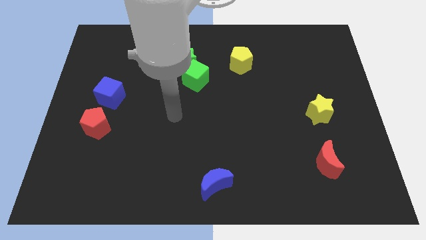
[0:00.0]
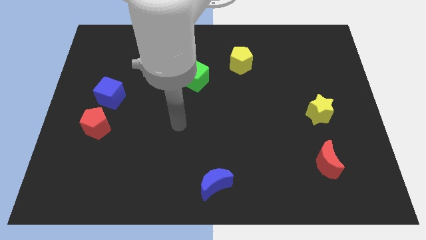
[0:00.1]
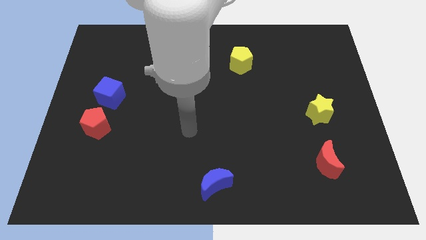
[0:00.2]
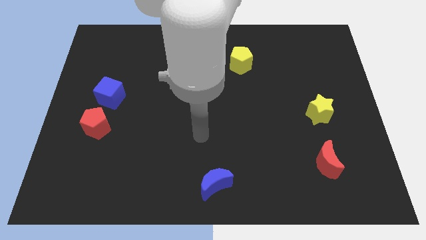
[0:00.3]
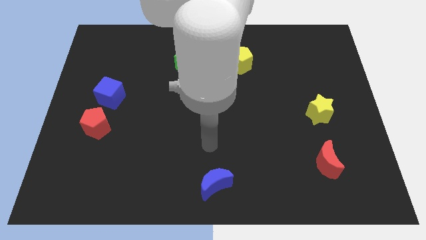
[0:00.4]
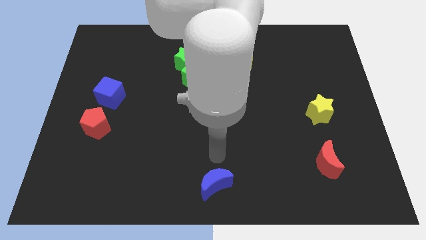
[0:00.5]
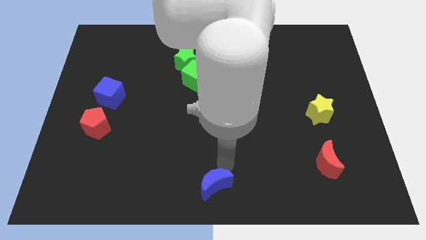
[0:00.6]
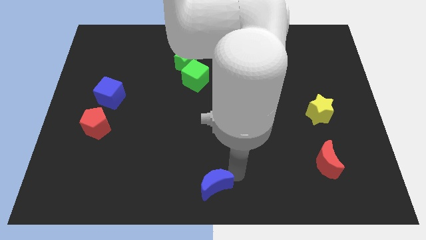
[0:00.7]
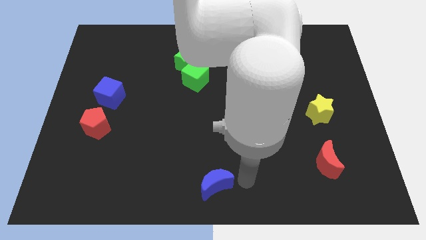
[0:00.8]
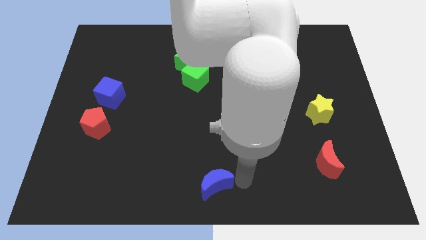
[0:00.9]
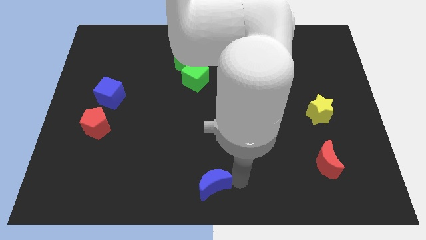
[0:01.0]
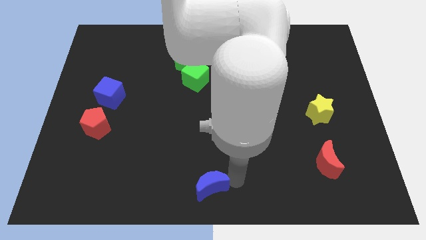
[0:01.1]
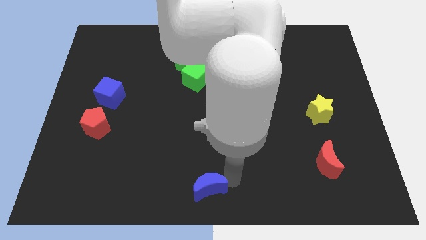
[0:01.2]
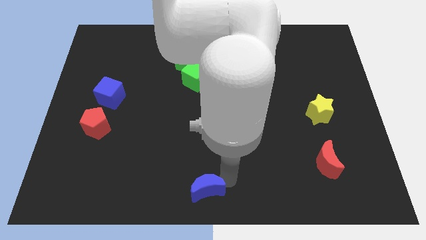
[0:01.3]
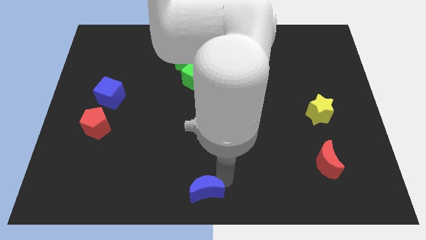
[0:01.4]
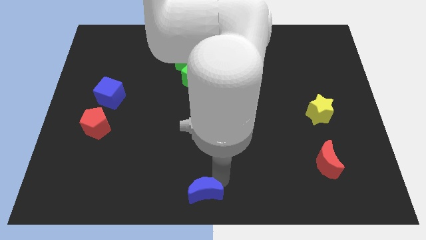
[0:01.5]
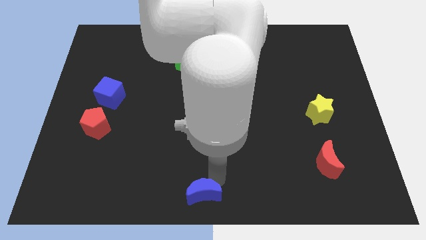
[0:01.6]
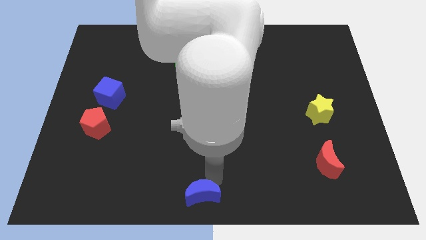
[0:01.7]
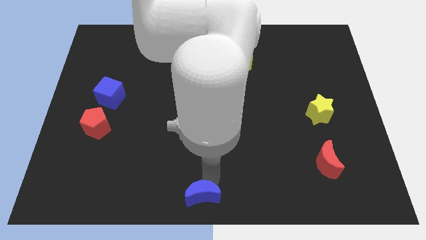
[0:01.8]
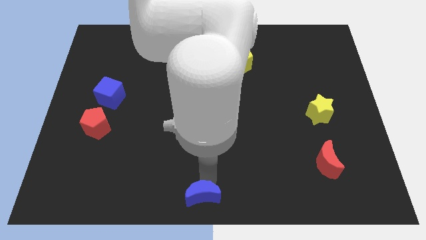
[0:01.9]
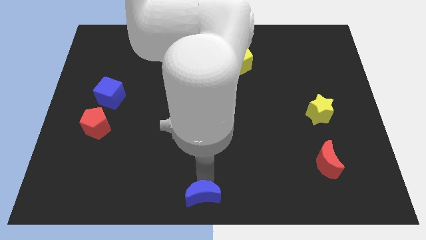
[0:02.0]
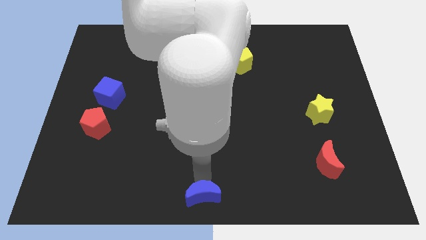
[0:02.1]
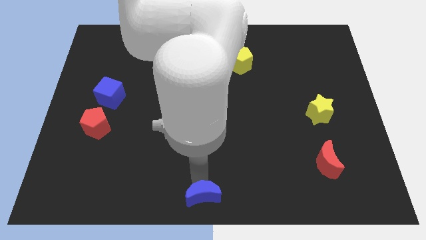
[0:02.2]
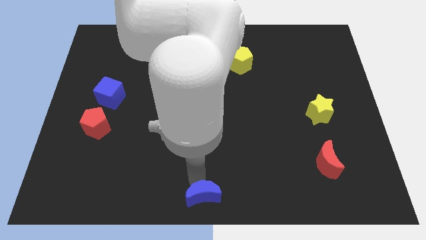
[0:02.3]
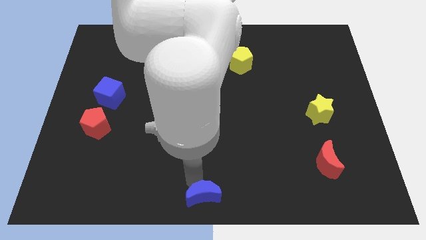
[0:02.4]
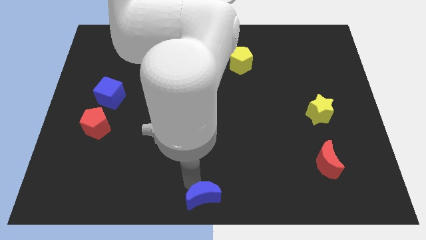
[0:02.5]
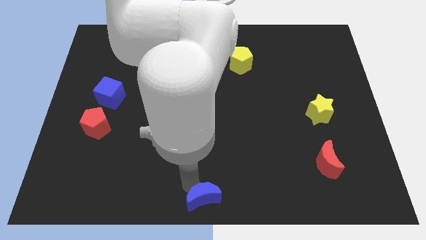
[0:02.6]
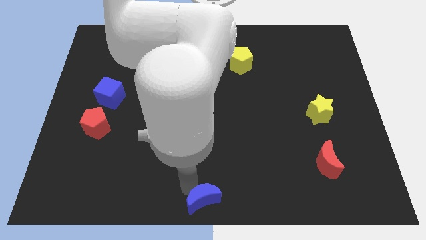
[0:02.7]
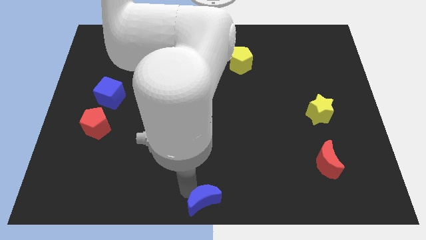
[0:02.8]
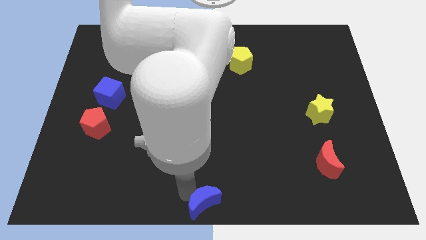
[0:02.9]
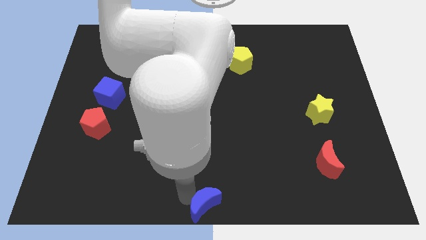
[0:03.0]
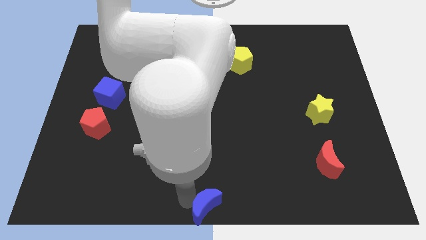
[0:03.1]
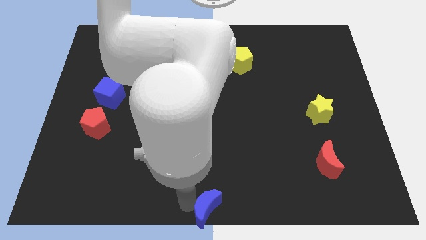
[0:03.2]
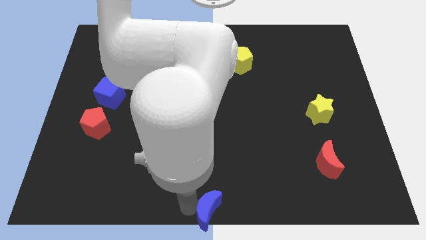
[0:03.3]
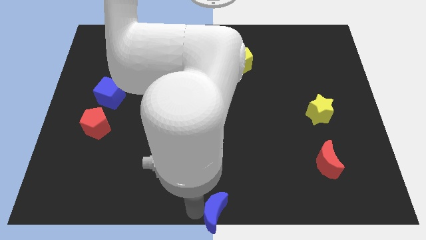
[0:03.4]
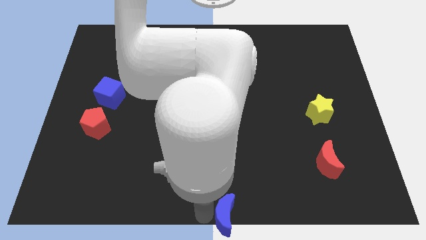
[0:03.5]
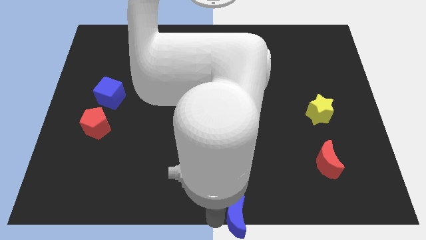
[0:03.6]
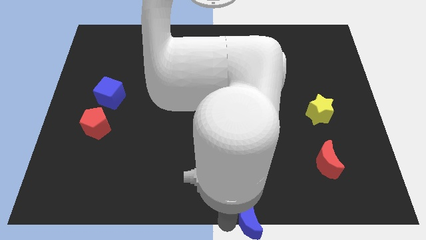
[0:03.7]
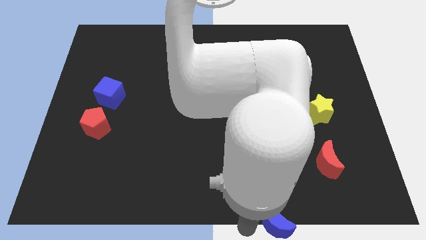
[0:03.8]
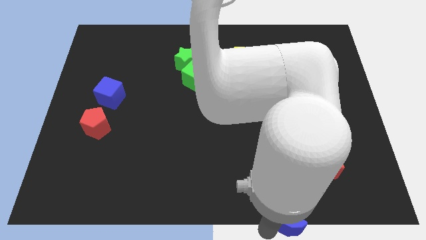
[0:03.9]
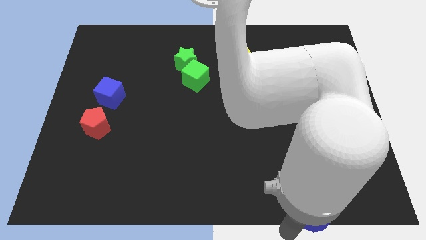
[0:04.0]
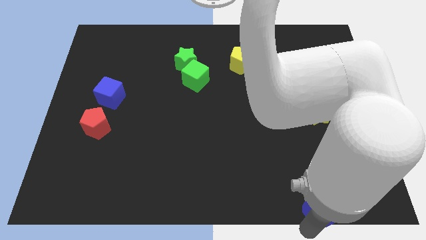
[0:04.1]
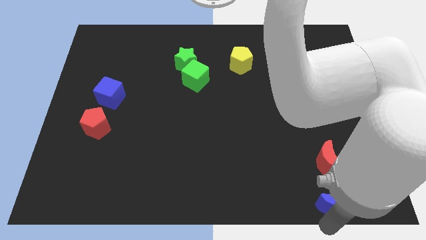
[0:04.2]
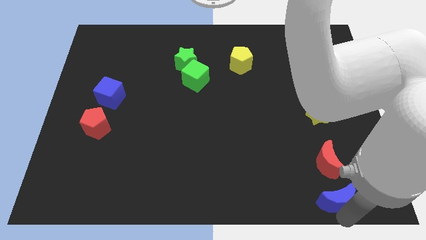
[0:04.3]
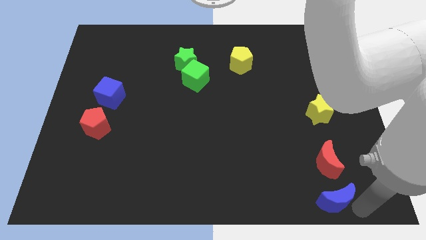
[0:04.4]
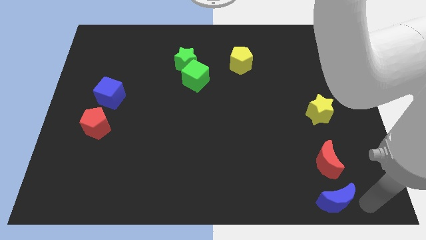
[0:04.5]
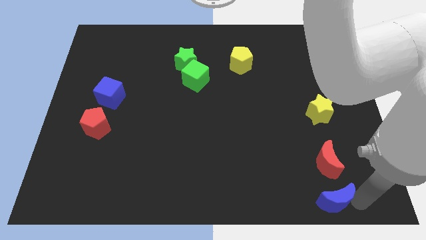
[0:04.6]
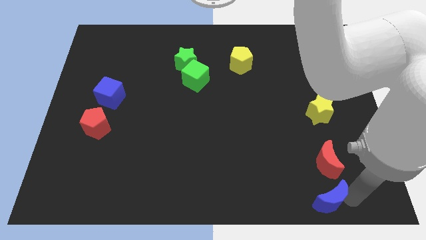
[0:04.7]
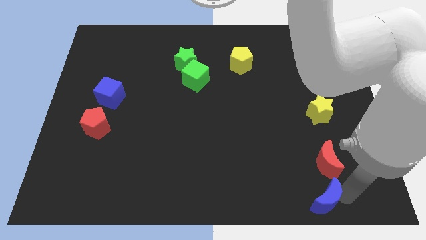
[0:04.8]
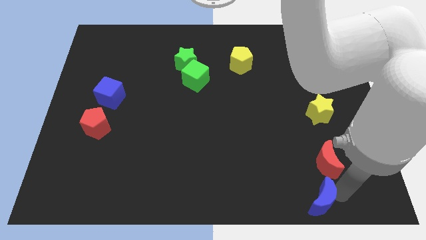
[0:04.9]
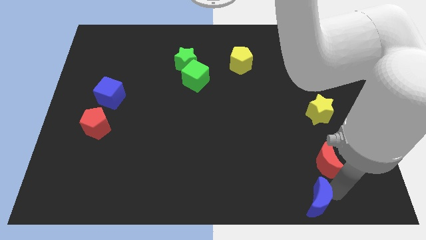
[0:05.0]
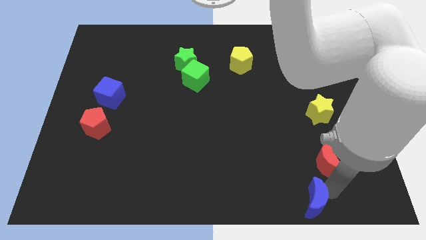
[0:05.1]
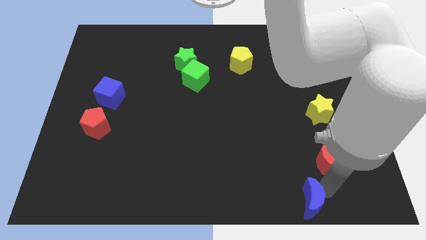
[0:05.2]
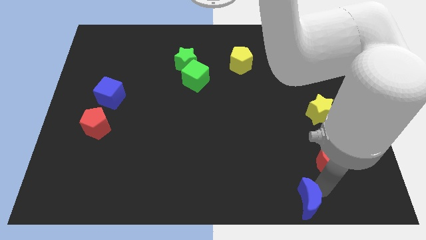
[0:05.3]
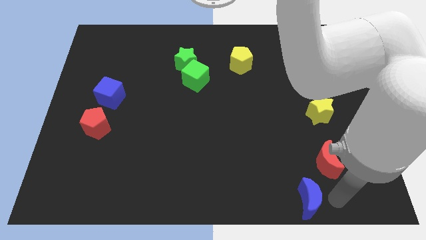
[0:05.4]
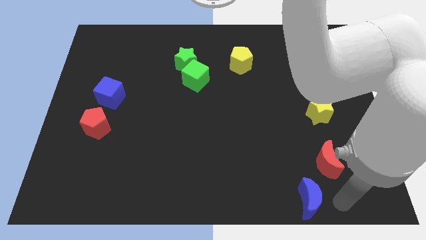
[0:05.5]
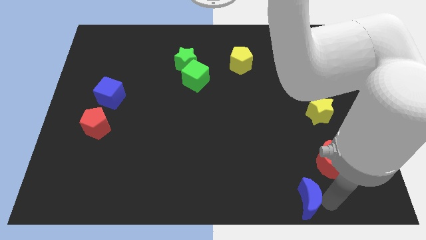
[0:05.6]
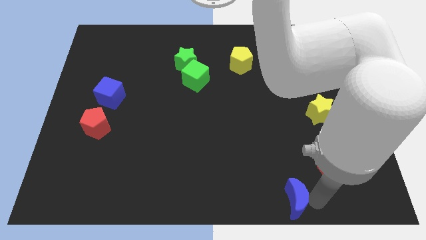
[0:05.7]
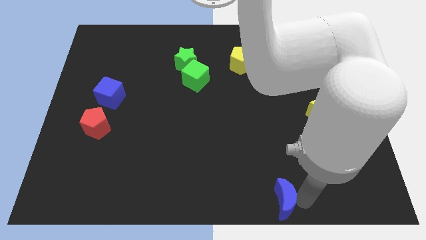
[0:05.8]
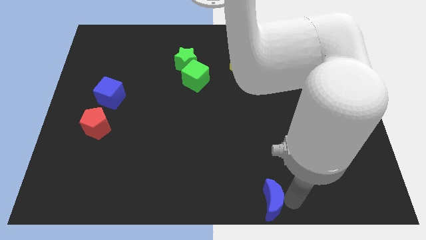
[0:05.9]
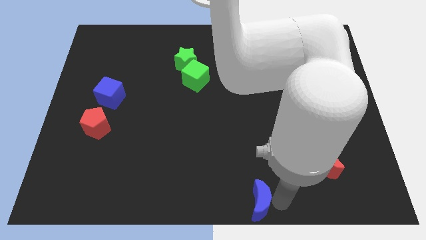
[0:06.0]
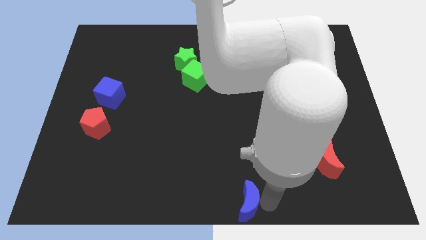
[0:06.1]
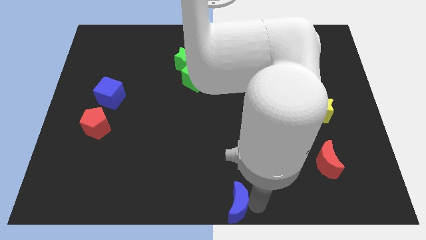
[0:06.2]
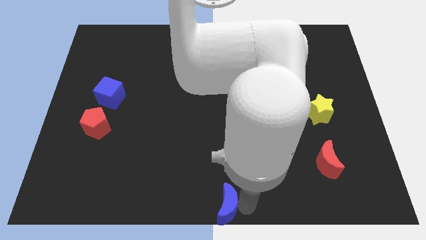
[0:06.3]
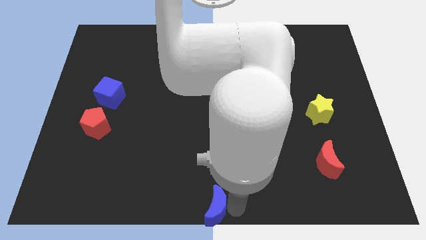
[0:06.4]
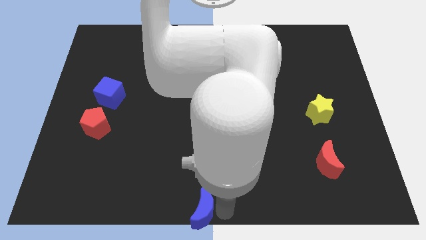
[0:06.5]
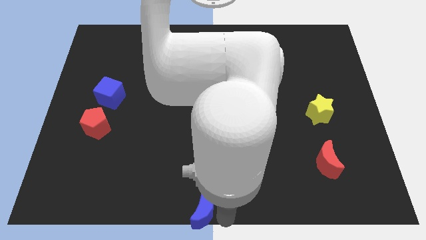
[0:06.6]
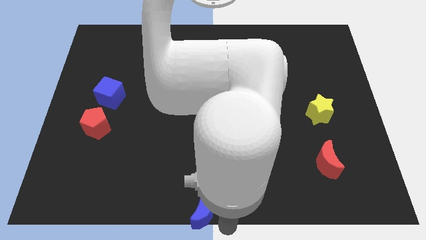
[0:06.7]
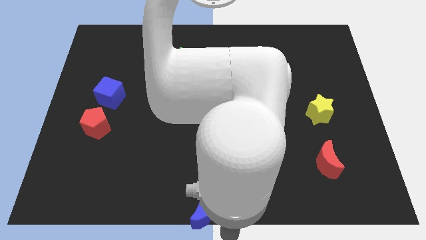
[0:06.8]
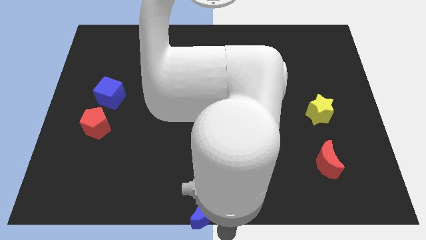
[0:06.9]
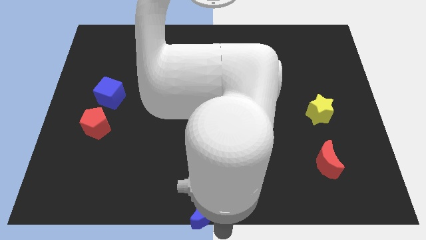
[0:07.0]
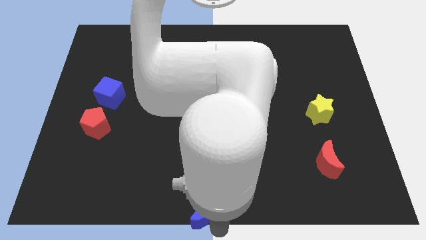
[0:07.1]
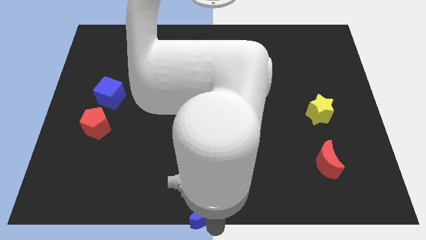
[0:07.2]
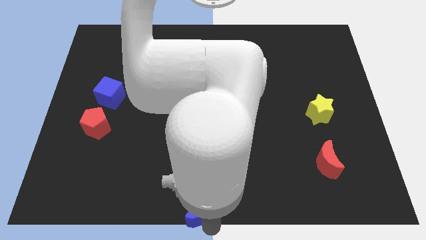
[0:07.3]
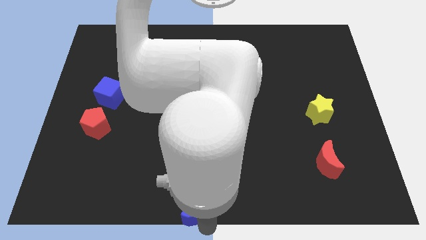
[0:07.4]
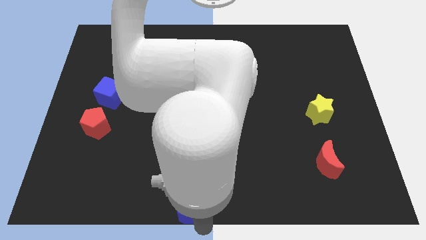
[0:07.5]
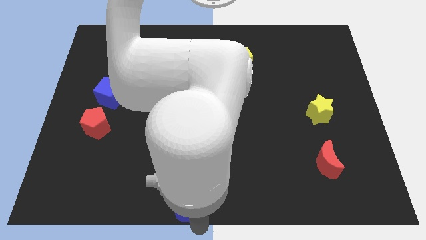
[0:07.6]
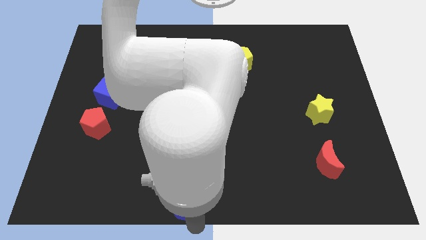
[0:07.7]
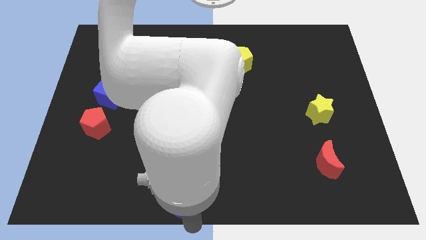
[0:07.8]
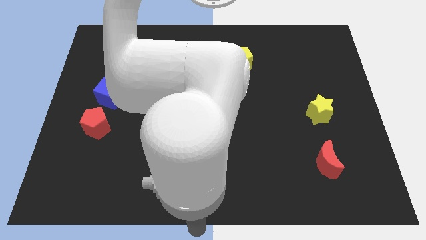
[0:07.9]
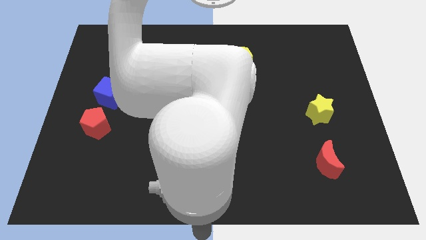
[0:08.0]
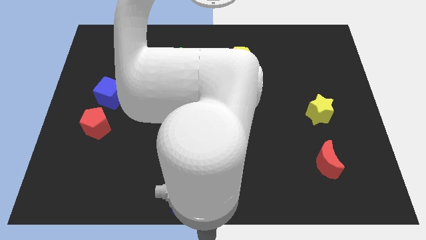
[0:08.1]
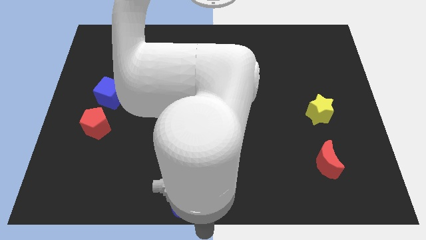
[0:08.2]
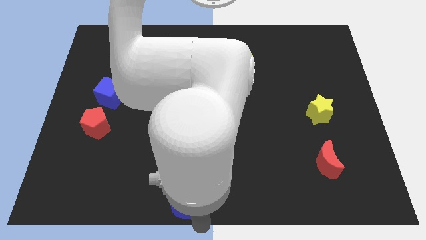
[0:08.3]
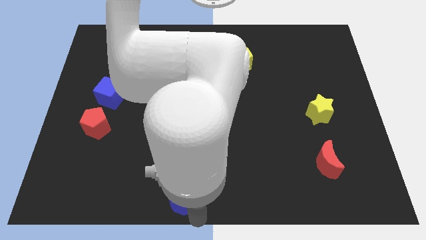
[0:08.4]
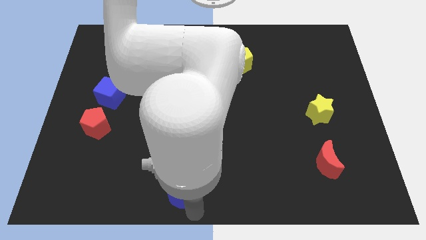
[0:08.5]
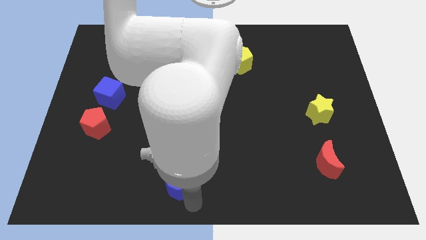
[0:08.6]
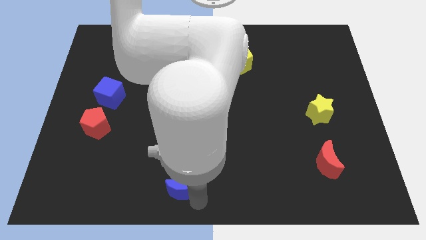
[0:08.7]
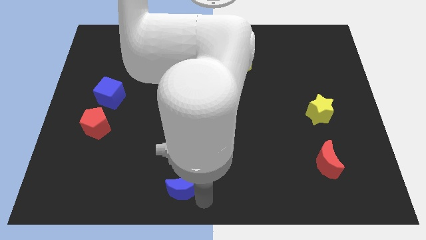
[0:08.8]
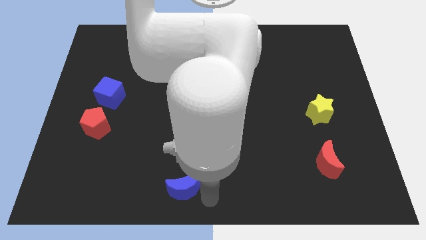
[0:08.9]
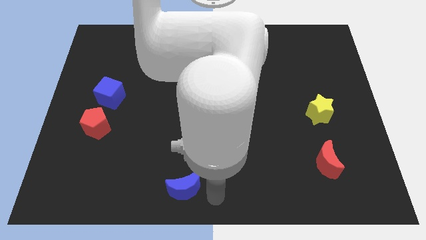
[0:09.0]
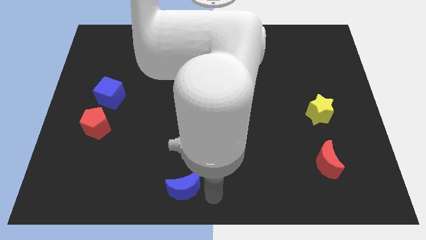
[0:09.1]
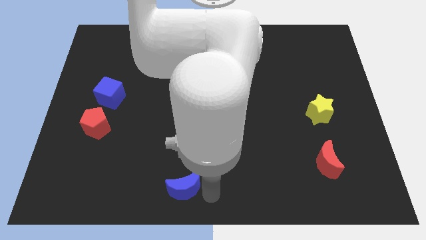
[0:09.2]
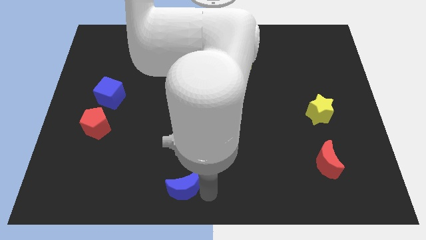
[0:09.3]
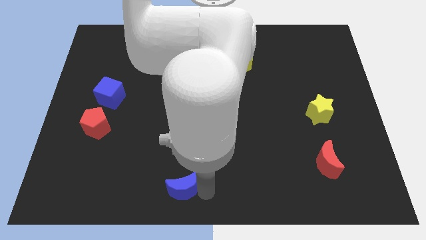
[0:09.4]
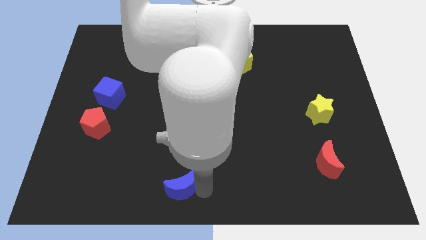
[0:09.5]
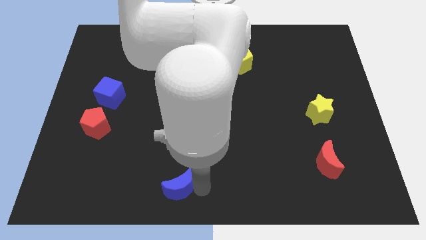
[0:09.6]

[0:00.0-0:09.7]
slightly move the blue moon to the left
